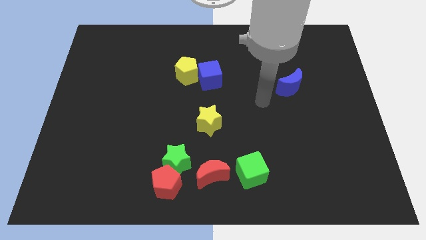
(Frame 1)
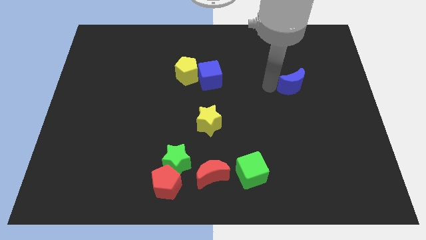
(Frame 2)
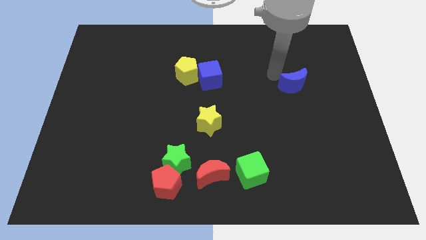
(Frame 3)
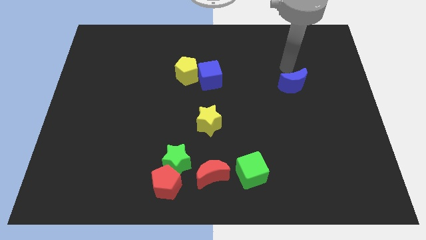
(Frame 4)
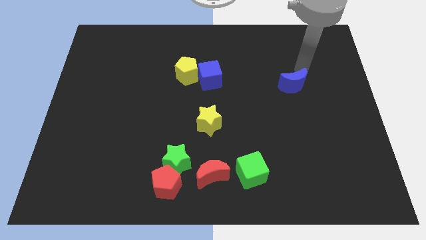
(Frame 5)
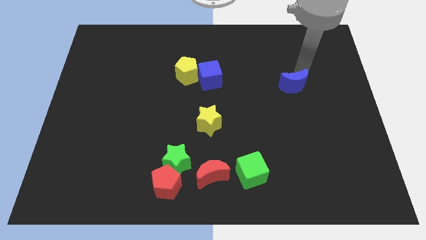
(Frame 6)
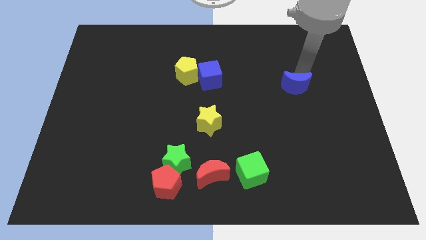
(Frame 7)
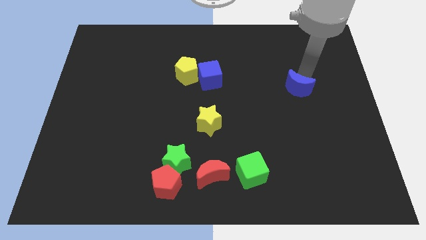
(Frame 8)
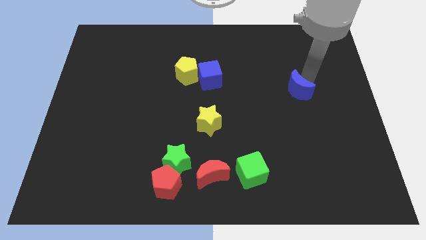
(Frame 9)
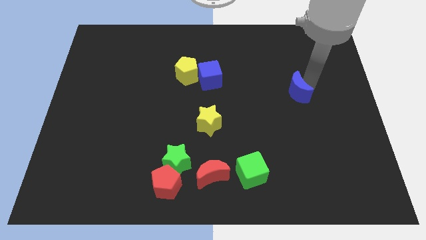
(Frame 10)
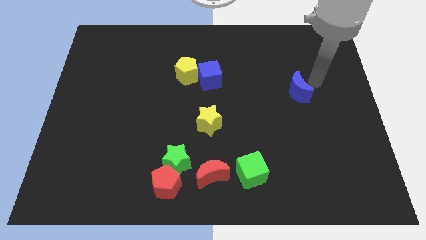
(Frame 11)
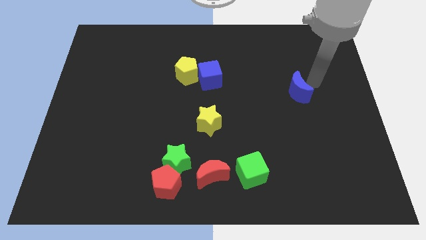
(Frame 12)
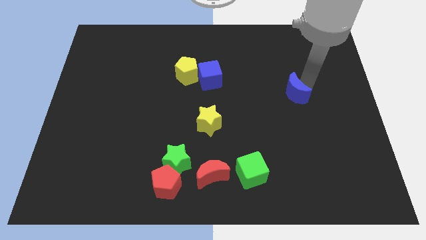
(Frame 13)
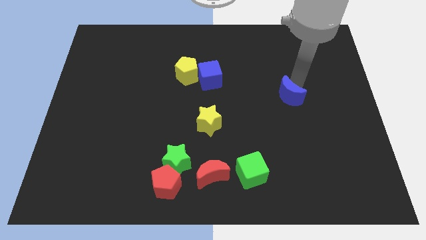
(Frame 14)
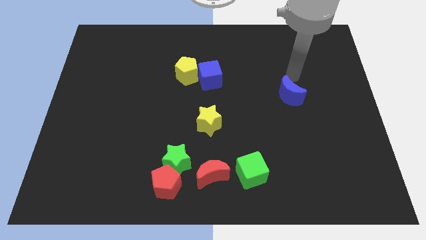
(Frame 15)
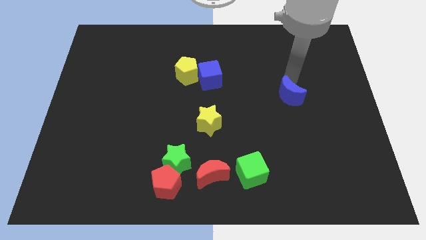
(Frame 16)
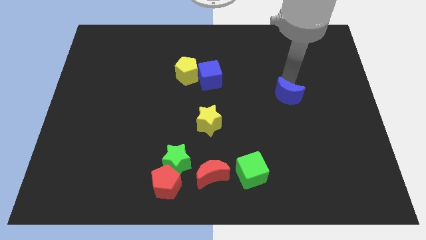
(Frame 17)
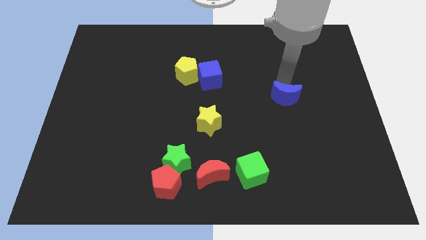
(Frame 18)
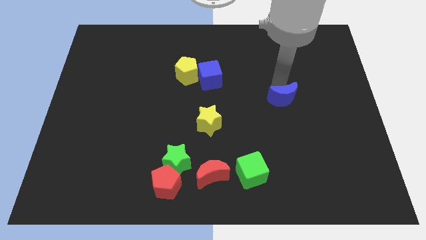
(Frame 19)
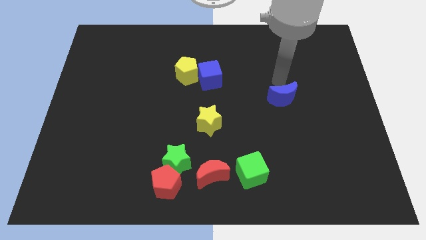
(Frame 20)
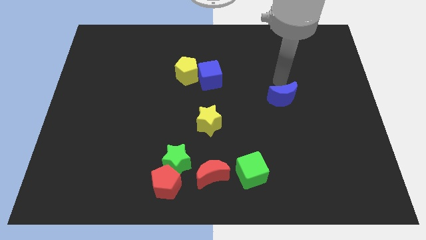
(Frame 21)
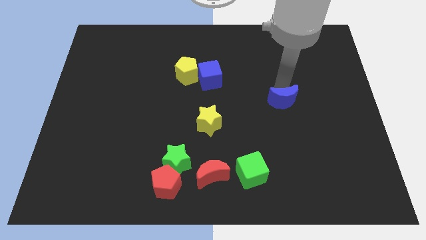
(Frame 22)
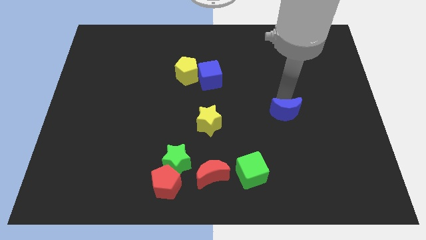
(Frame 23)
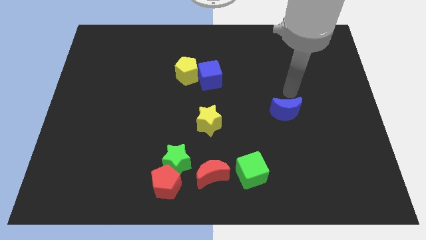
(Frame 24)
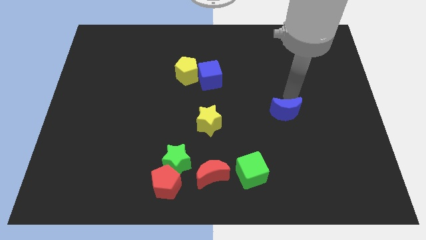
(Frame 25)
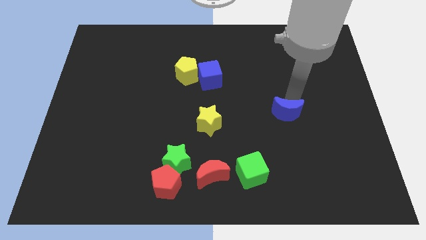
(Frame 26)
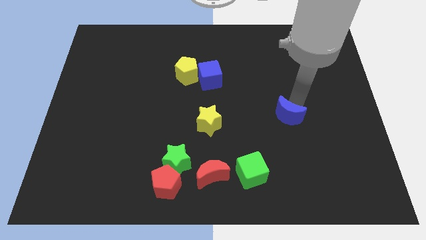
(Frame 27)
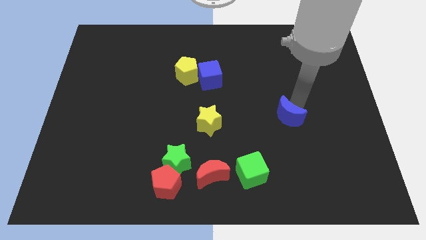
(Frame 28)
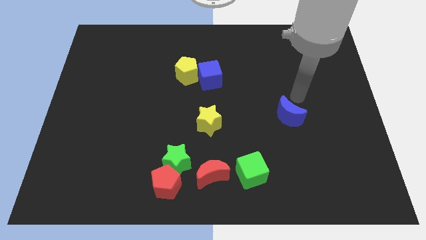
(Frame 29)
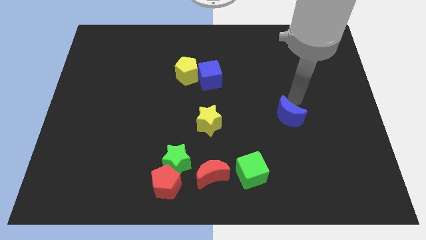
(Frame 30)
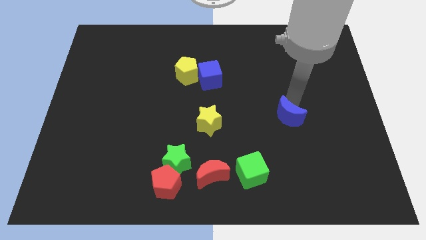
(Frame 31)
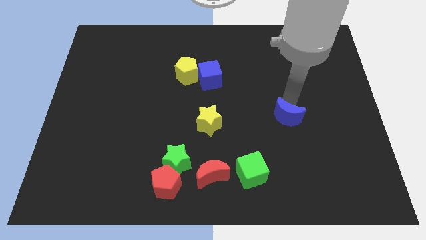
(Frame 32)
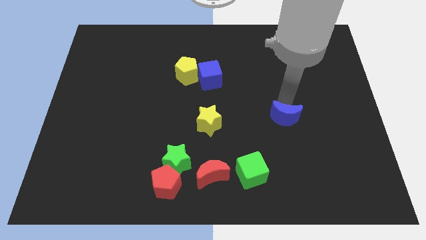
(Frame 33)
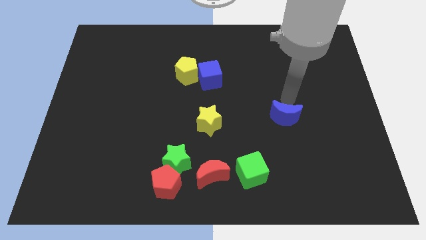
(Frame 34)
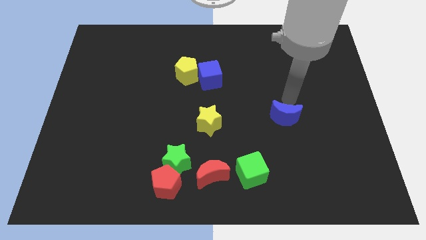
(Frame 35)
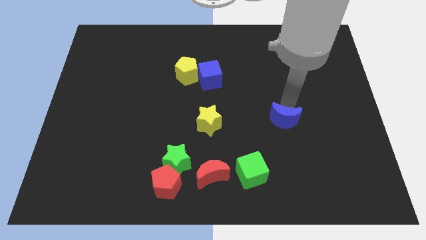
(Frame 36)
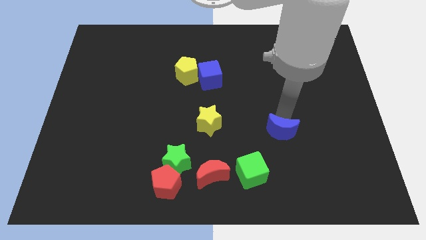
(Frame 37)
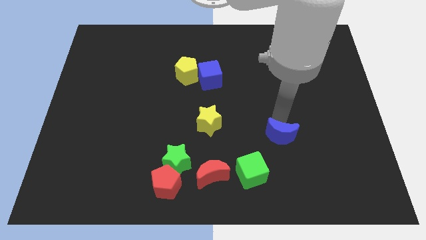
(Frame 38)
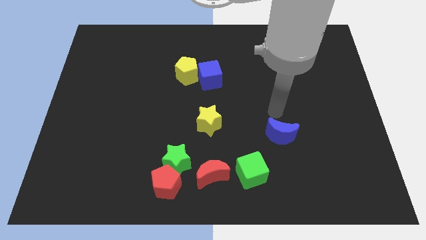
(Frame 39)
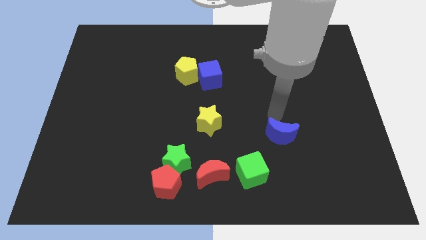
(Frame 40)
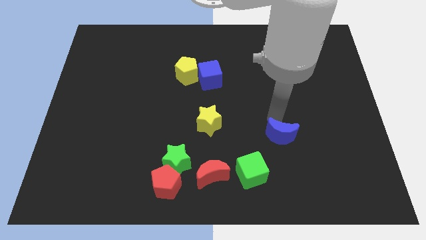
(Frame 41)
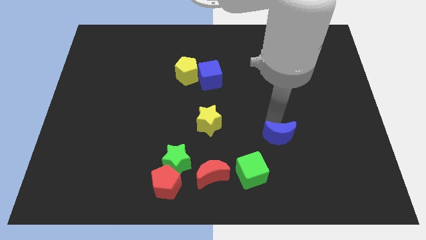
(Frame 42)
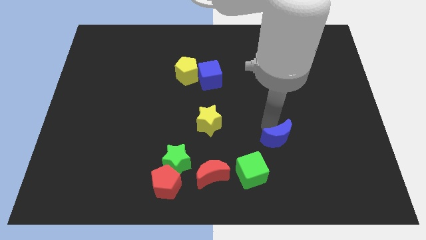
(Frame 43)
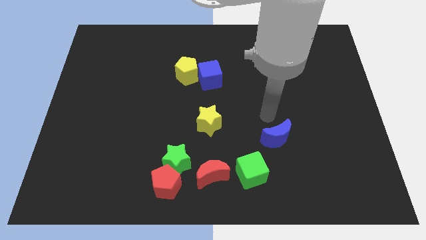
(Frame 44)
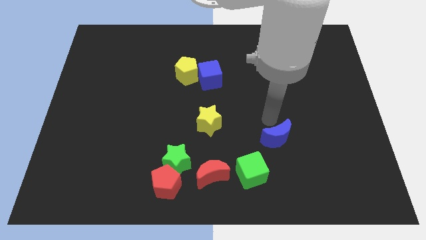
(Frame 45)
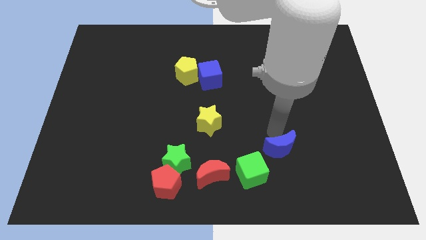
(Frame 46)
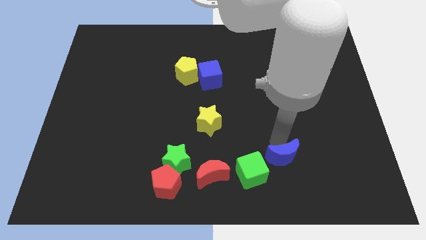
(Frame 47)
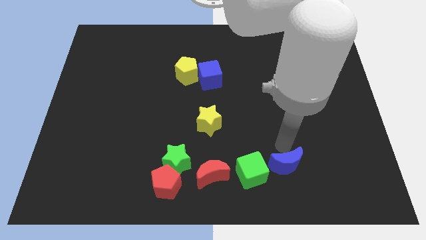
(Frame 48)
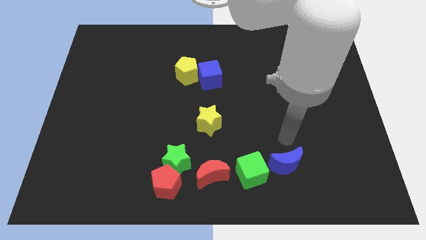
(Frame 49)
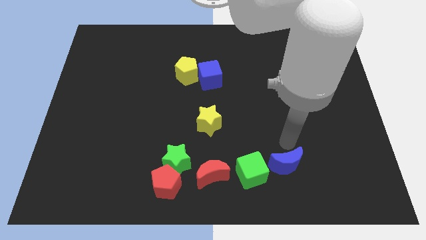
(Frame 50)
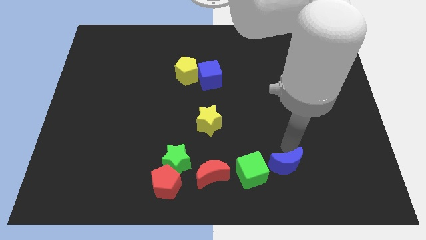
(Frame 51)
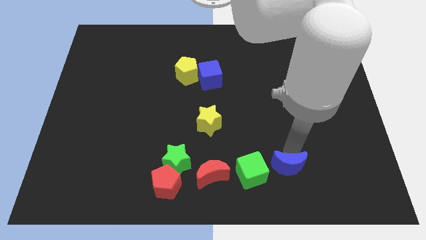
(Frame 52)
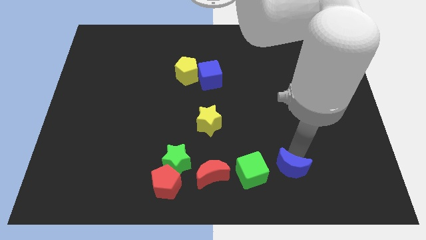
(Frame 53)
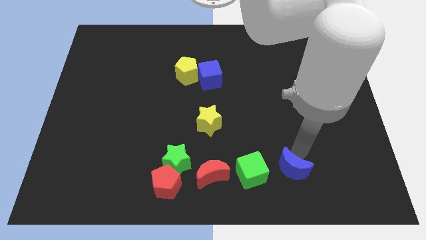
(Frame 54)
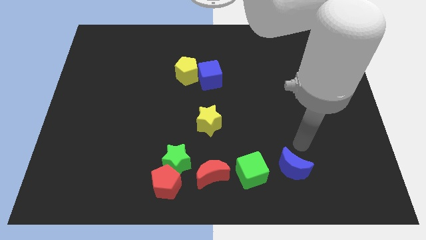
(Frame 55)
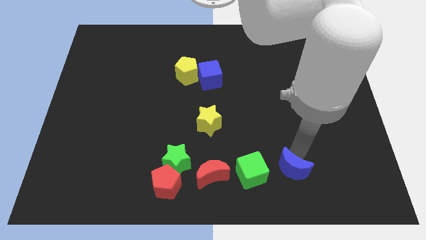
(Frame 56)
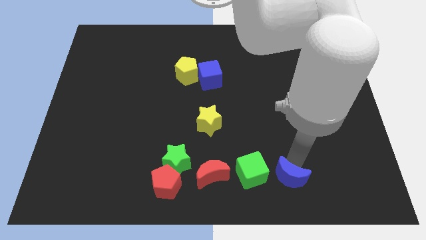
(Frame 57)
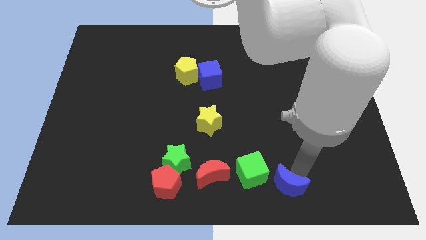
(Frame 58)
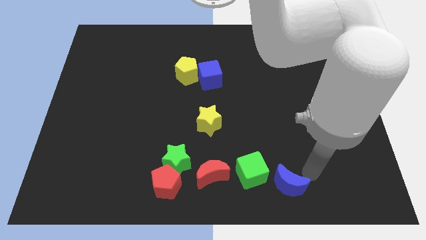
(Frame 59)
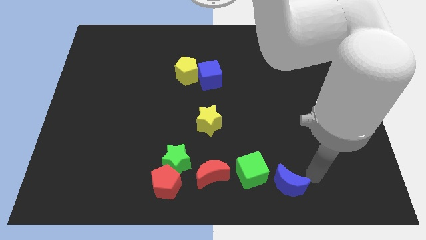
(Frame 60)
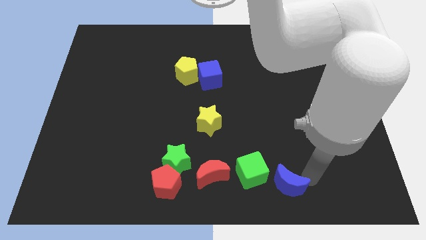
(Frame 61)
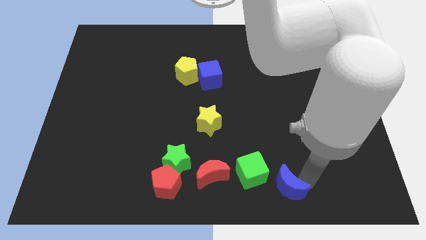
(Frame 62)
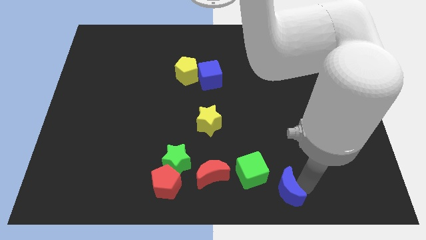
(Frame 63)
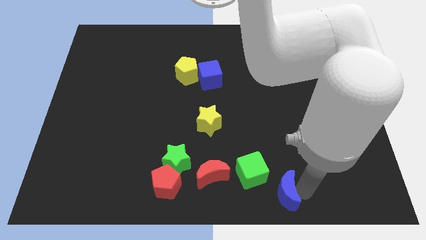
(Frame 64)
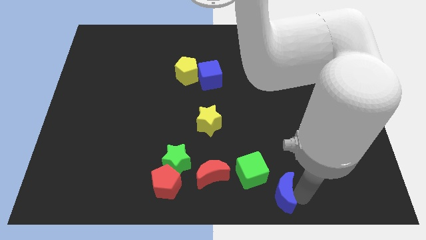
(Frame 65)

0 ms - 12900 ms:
push the blue moon to the bottom
